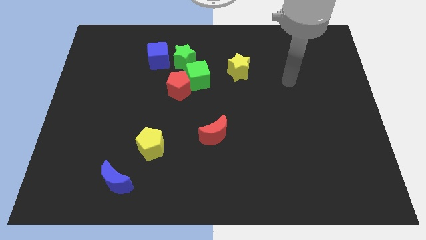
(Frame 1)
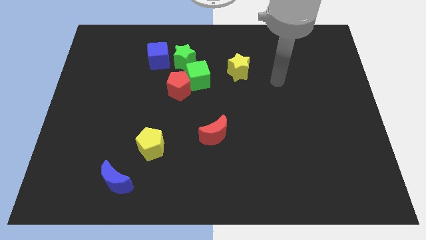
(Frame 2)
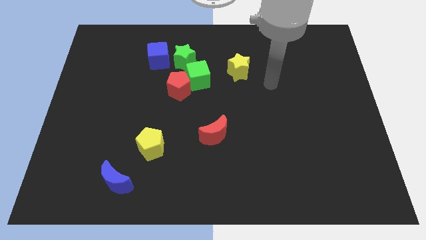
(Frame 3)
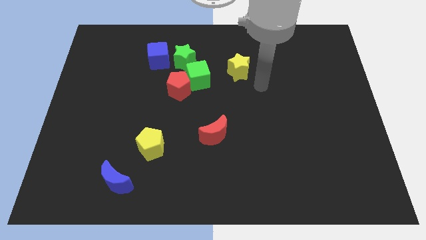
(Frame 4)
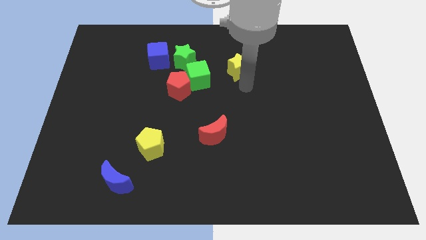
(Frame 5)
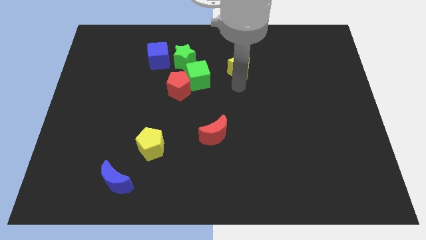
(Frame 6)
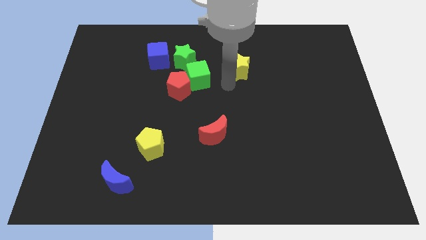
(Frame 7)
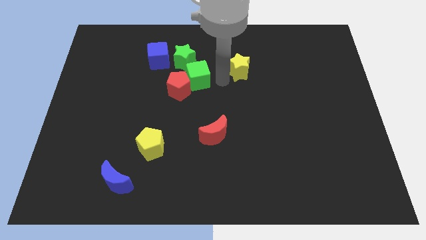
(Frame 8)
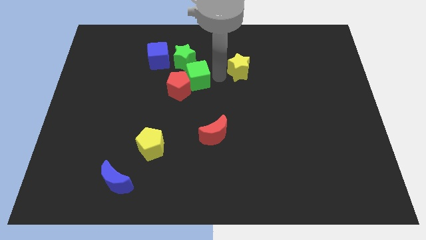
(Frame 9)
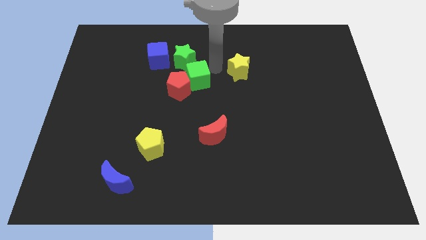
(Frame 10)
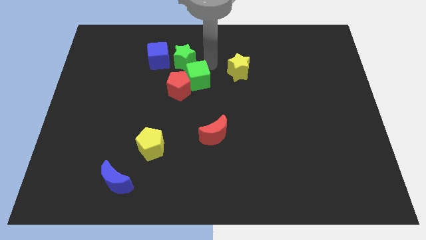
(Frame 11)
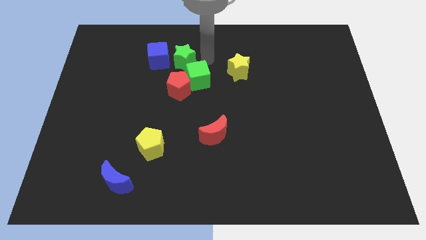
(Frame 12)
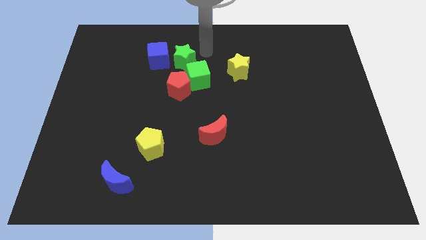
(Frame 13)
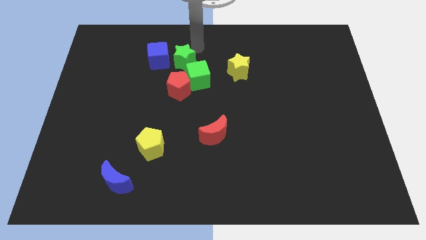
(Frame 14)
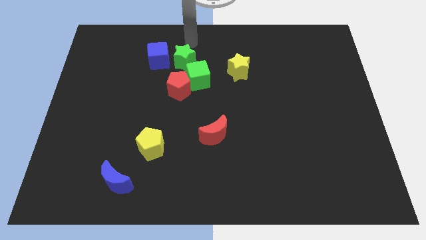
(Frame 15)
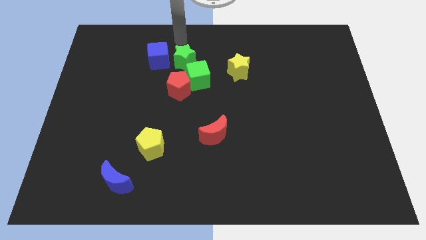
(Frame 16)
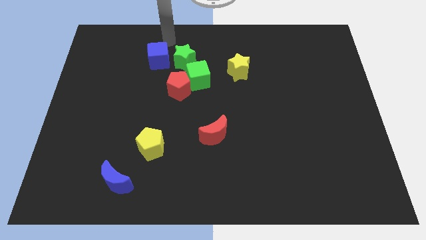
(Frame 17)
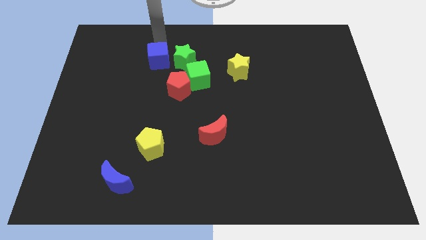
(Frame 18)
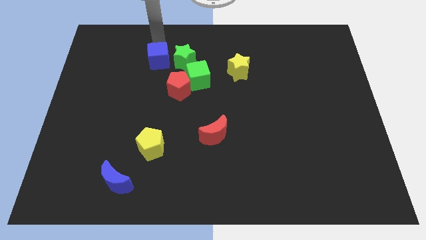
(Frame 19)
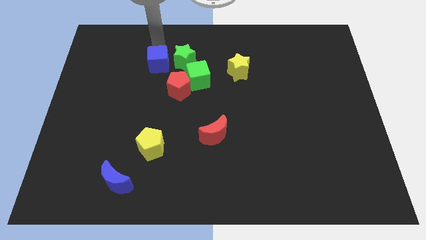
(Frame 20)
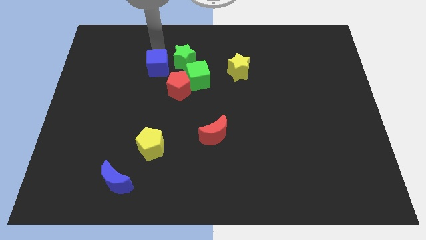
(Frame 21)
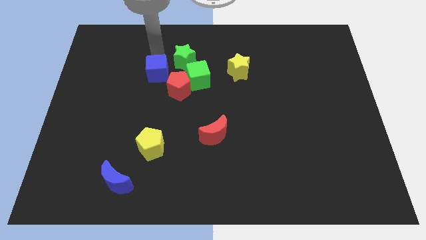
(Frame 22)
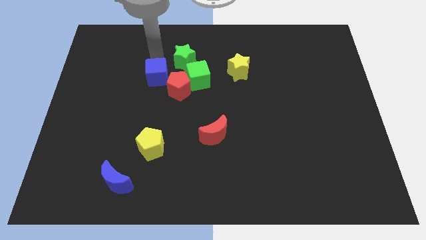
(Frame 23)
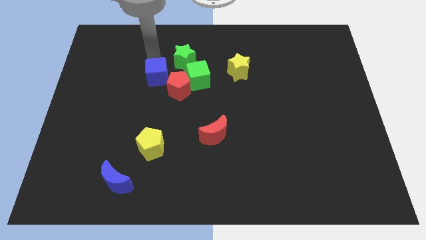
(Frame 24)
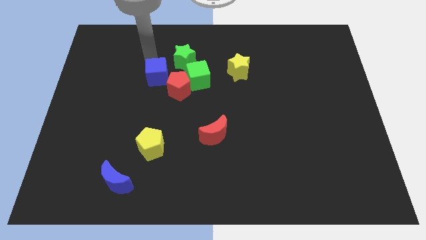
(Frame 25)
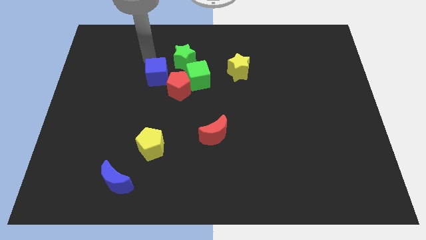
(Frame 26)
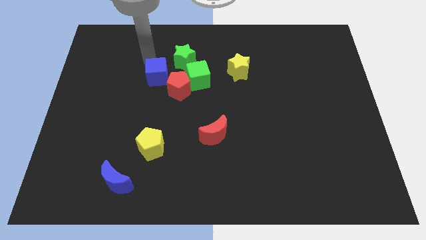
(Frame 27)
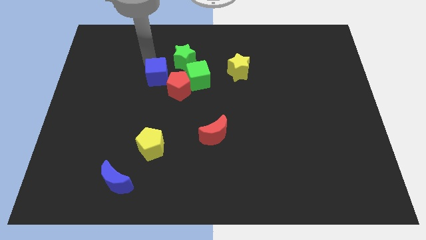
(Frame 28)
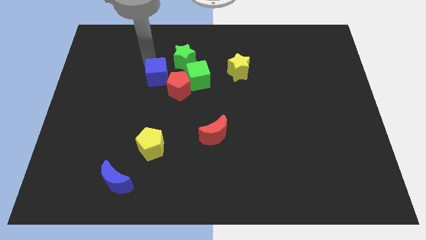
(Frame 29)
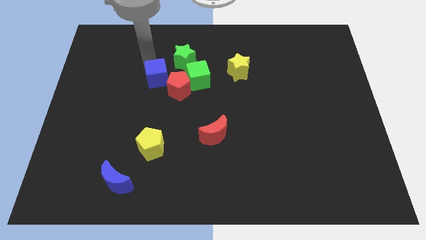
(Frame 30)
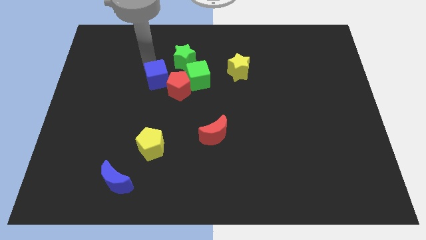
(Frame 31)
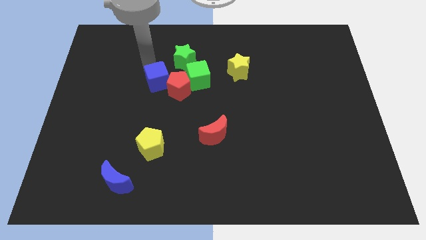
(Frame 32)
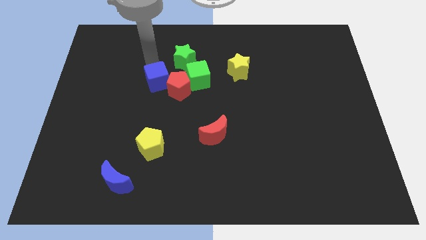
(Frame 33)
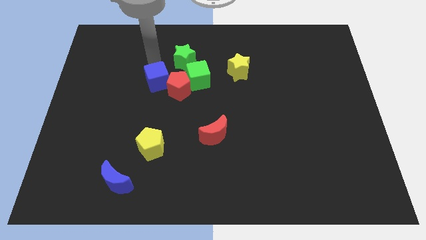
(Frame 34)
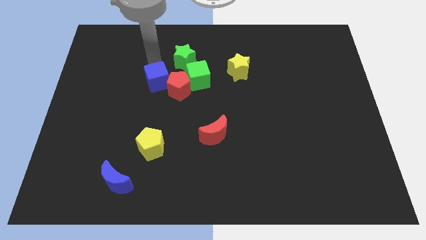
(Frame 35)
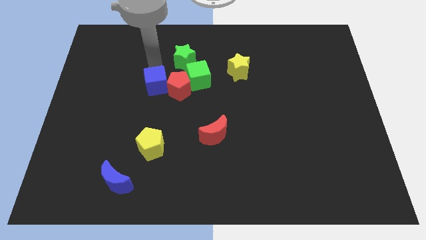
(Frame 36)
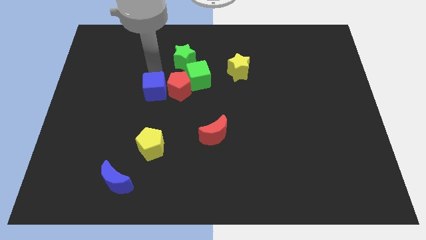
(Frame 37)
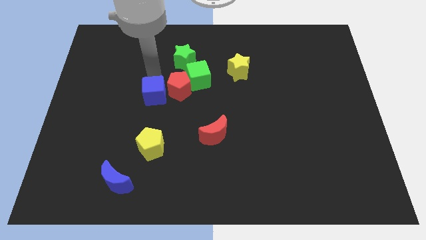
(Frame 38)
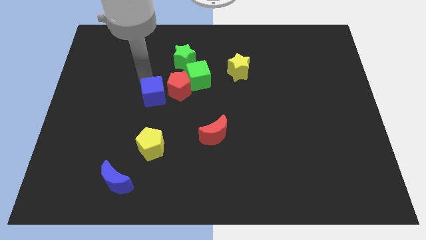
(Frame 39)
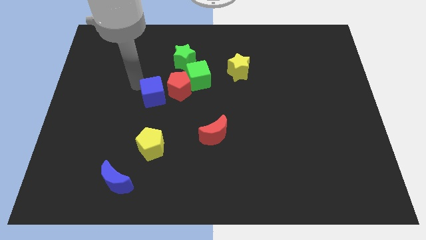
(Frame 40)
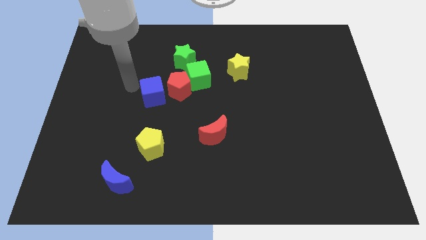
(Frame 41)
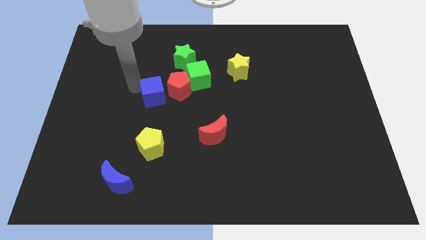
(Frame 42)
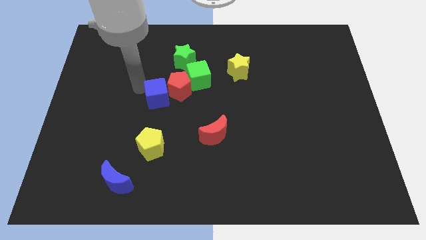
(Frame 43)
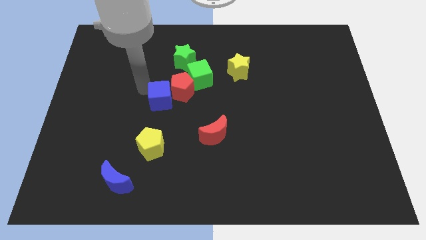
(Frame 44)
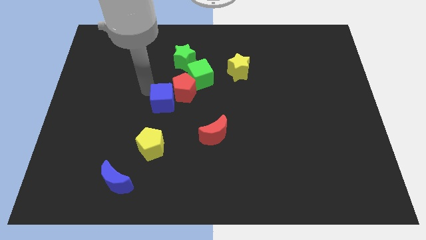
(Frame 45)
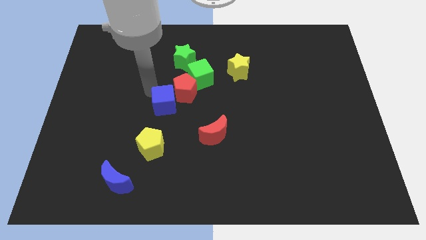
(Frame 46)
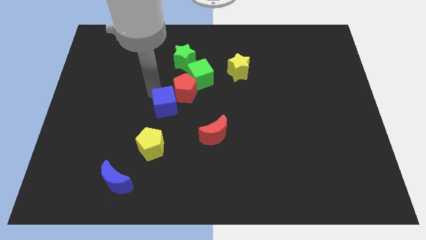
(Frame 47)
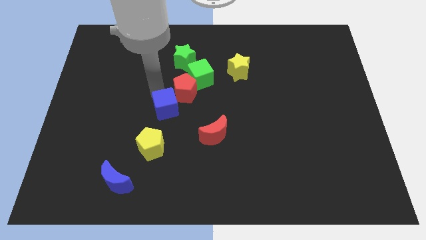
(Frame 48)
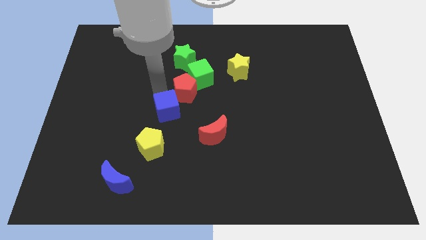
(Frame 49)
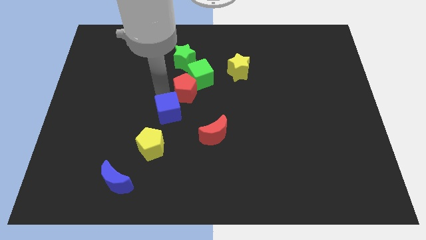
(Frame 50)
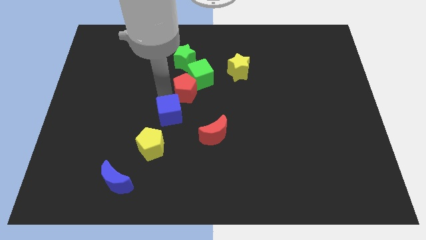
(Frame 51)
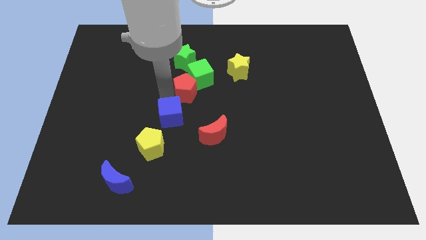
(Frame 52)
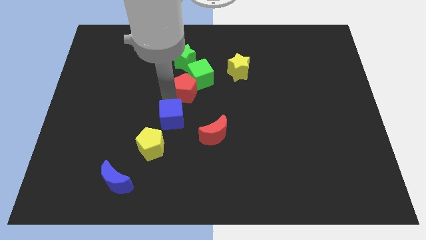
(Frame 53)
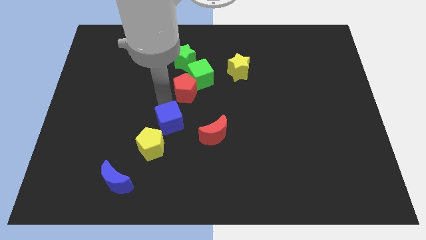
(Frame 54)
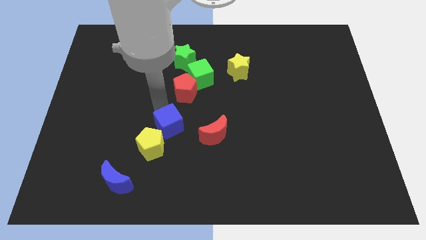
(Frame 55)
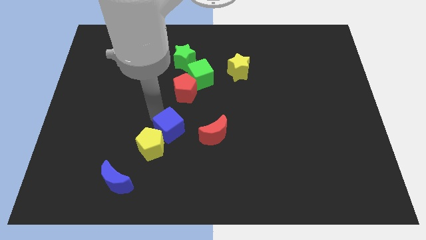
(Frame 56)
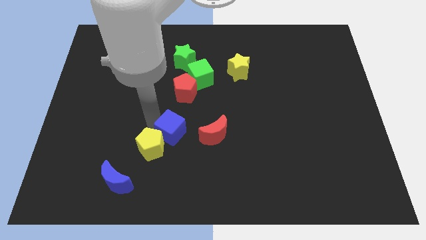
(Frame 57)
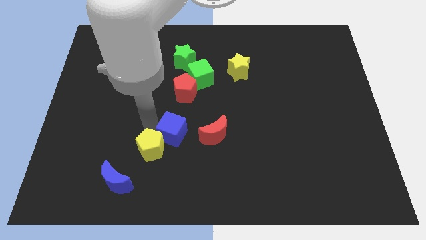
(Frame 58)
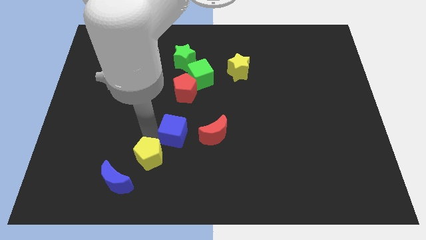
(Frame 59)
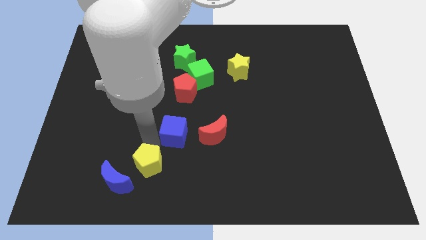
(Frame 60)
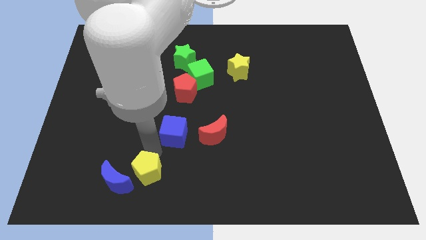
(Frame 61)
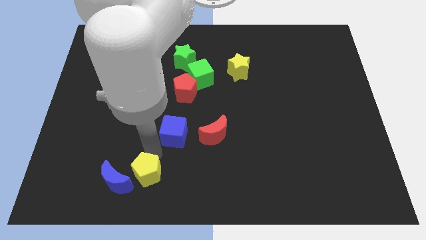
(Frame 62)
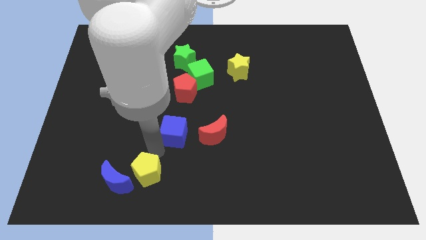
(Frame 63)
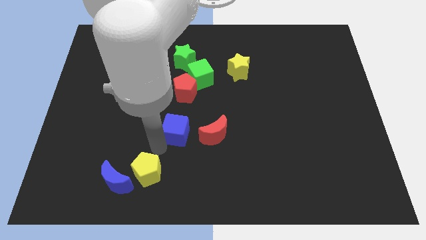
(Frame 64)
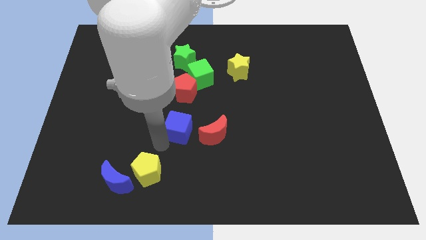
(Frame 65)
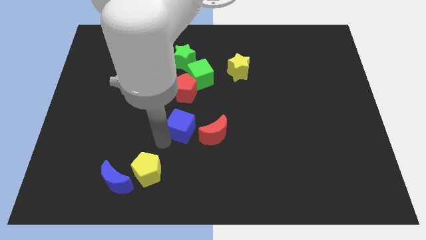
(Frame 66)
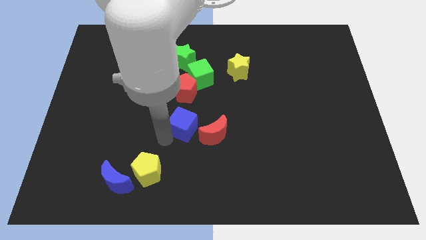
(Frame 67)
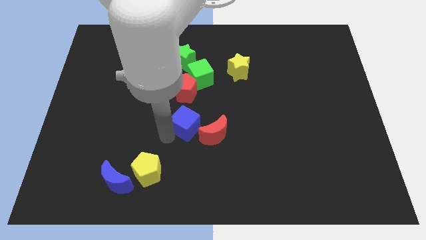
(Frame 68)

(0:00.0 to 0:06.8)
put the blue cube to the bottom side of the green cube

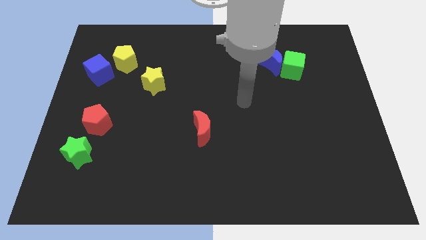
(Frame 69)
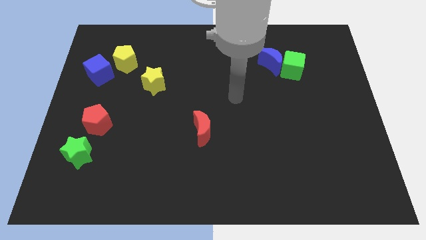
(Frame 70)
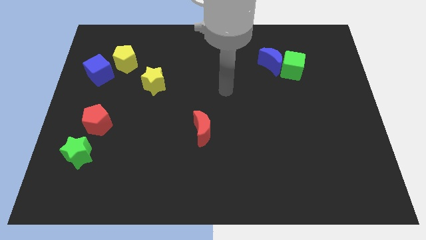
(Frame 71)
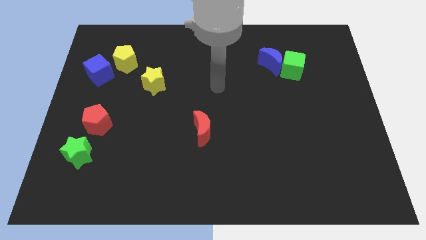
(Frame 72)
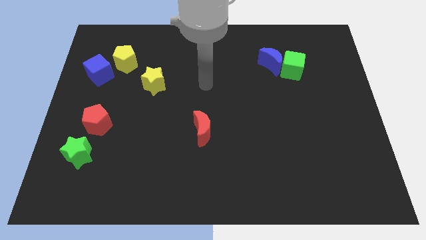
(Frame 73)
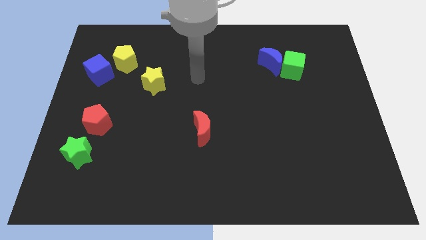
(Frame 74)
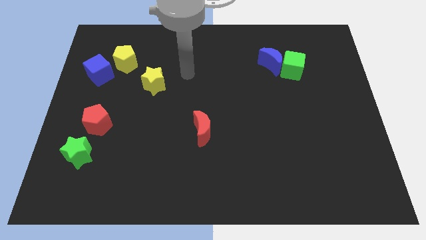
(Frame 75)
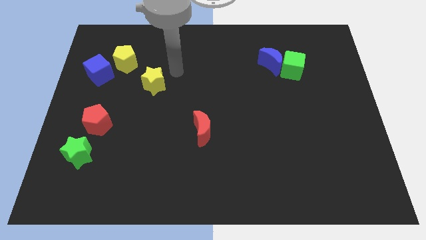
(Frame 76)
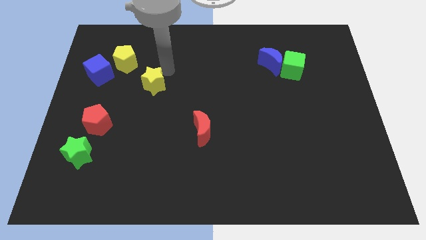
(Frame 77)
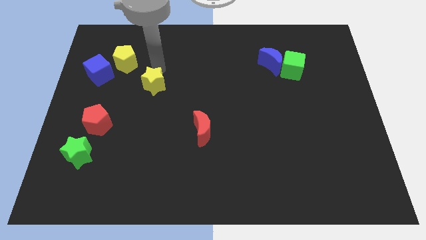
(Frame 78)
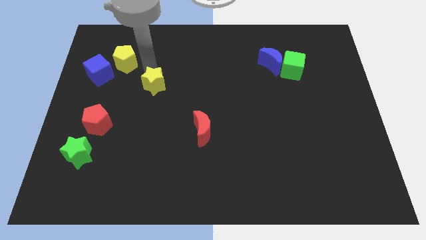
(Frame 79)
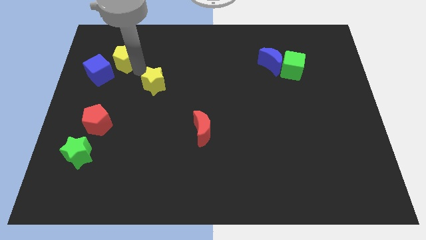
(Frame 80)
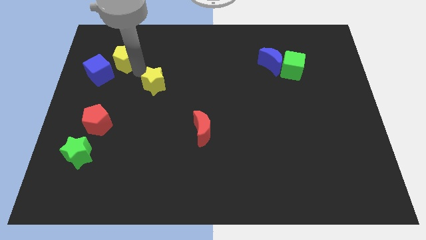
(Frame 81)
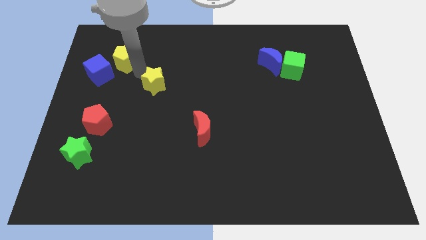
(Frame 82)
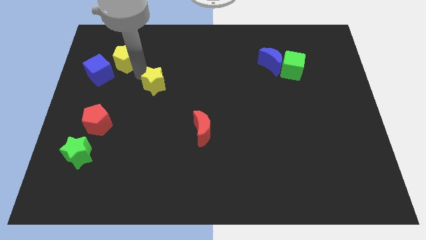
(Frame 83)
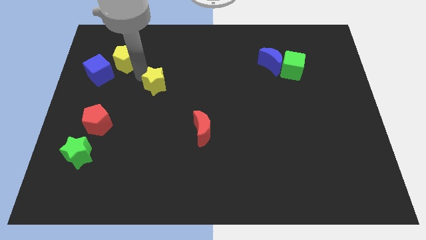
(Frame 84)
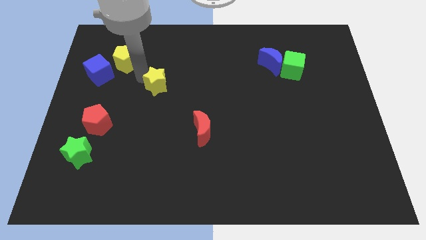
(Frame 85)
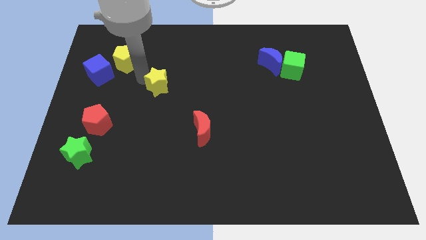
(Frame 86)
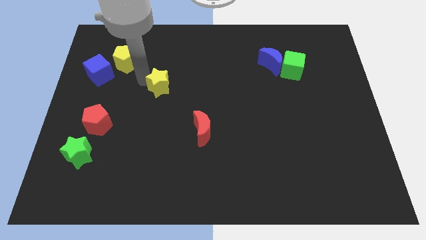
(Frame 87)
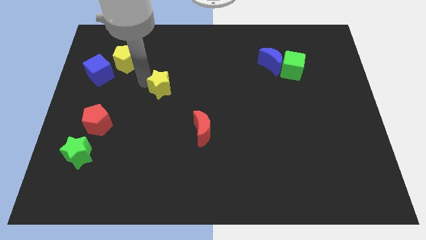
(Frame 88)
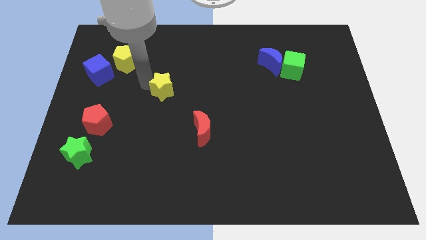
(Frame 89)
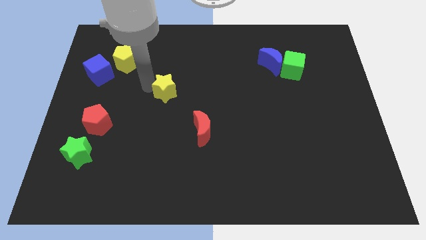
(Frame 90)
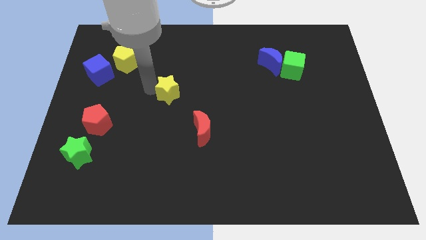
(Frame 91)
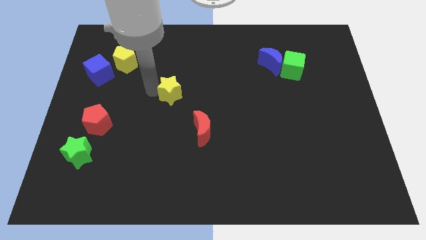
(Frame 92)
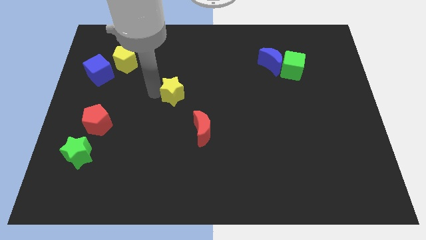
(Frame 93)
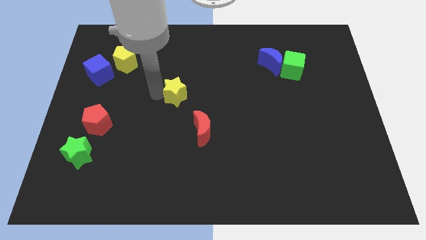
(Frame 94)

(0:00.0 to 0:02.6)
put the yellow star to the top left side of the red moon
